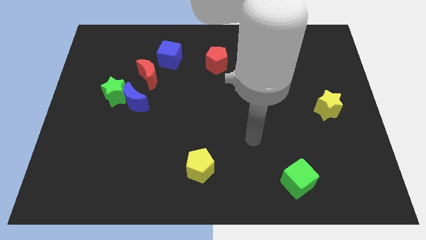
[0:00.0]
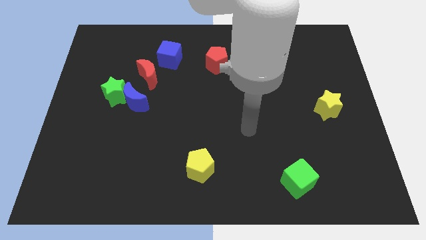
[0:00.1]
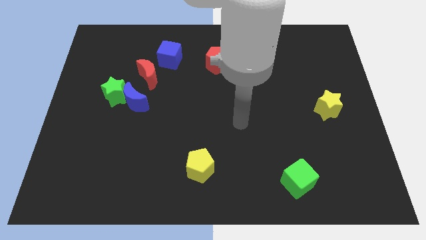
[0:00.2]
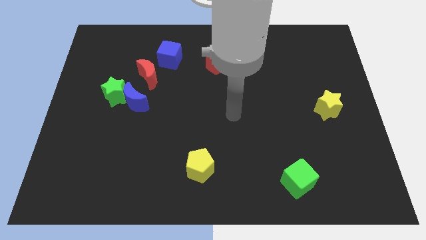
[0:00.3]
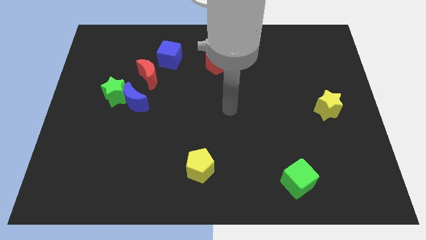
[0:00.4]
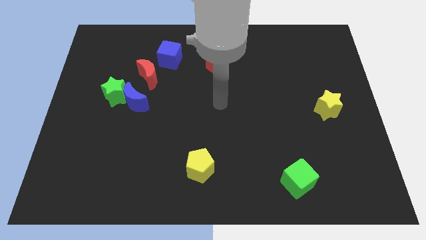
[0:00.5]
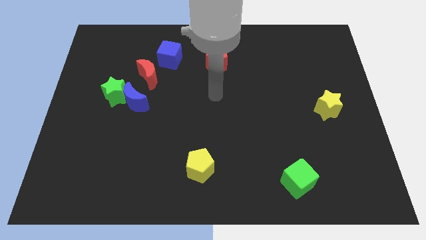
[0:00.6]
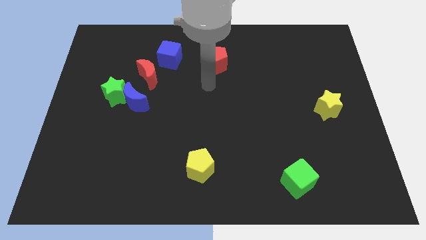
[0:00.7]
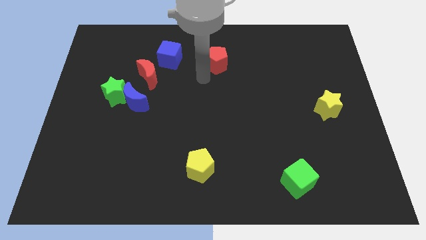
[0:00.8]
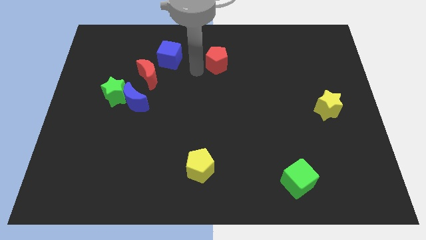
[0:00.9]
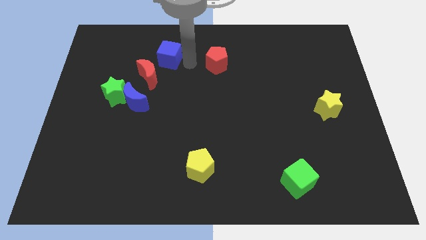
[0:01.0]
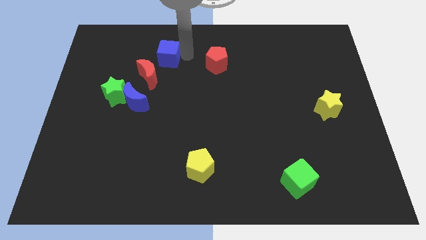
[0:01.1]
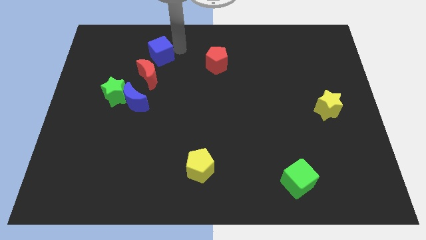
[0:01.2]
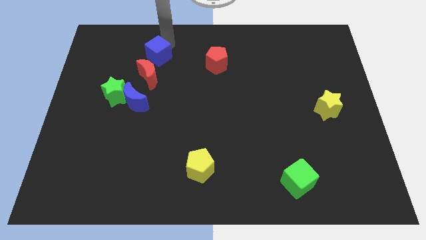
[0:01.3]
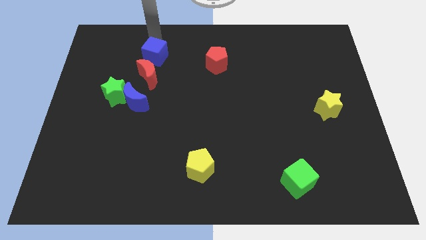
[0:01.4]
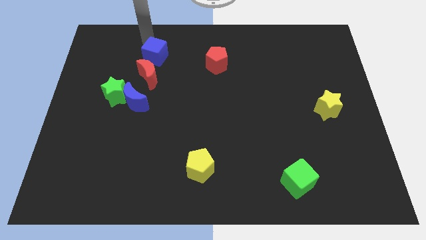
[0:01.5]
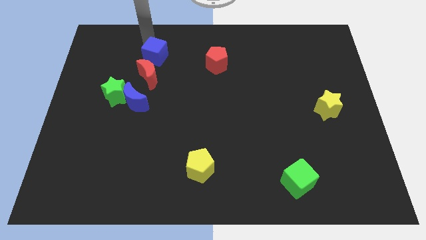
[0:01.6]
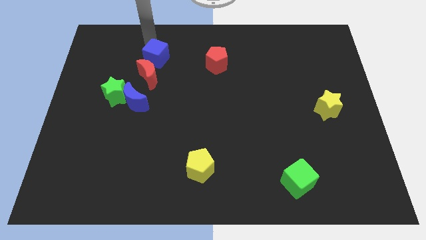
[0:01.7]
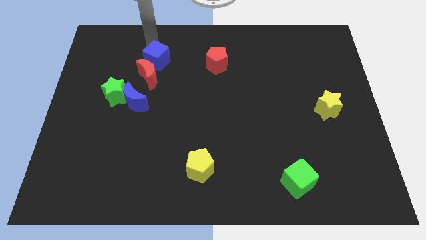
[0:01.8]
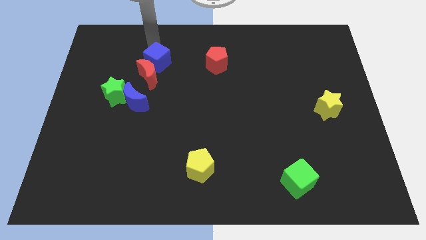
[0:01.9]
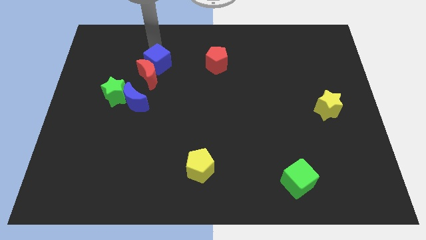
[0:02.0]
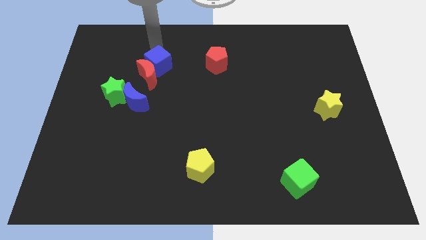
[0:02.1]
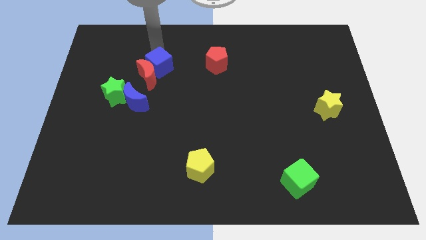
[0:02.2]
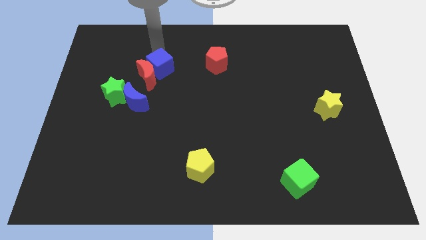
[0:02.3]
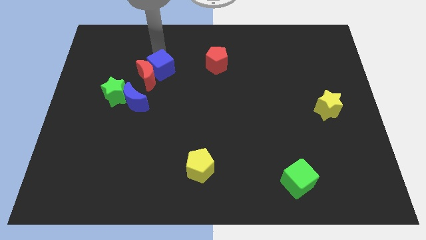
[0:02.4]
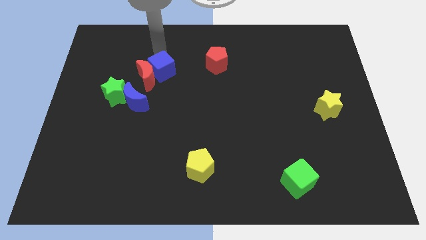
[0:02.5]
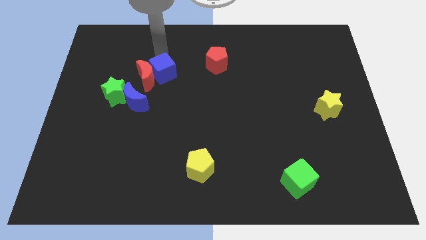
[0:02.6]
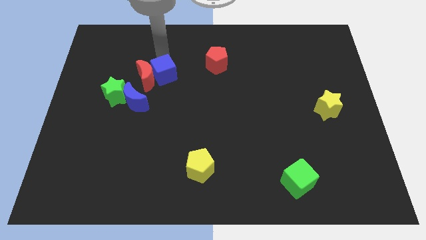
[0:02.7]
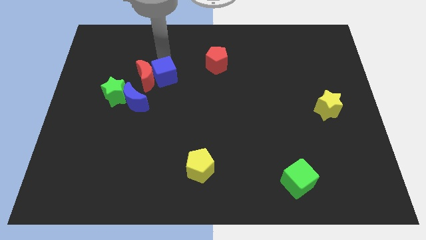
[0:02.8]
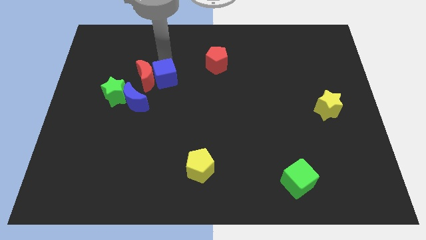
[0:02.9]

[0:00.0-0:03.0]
slightly move the blue cube downwards

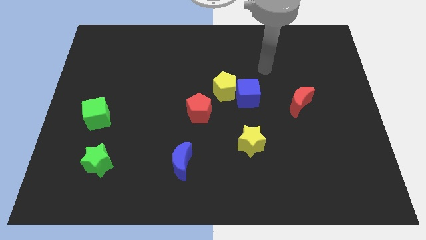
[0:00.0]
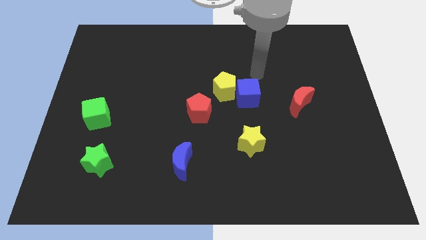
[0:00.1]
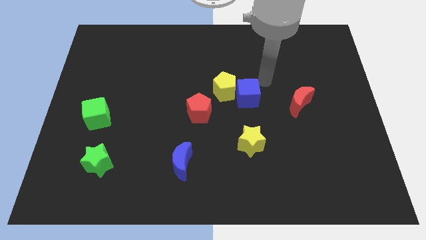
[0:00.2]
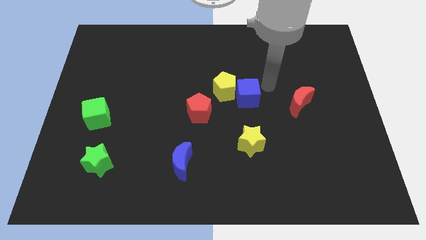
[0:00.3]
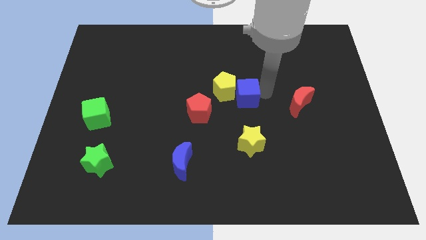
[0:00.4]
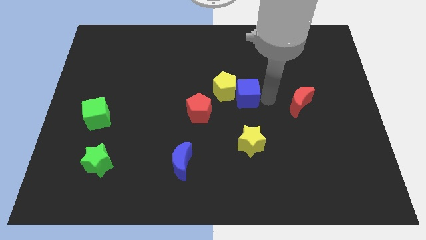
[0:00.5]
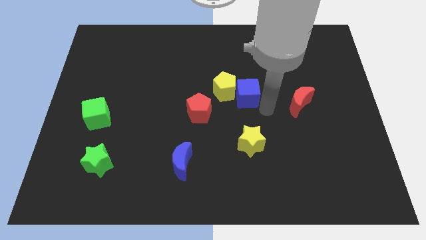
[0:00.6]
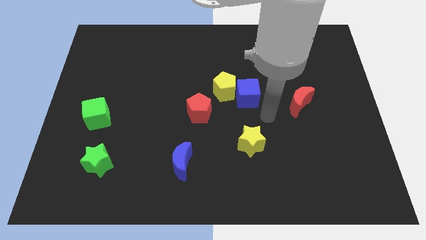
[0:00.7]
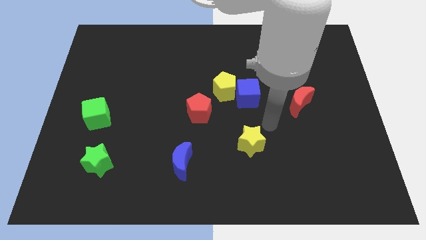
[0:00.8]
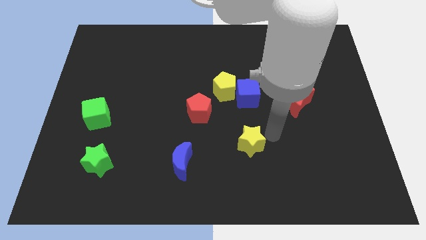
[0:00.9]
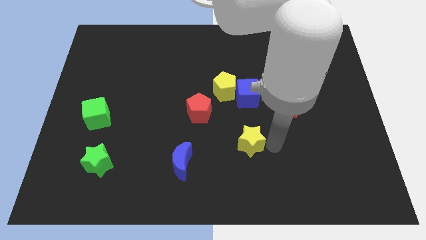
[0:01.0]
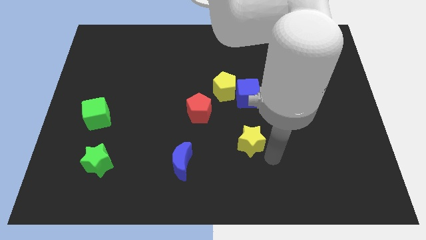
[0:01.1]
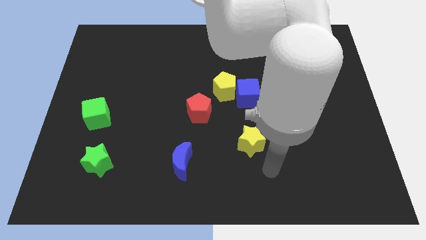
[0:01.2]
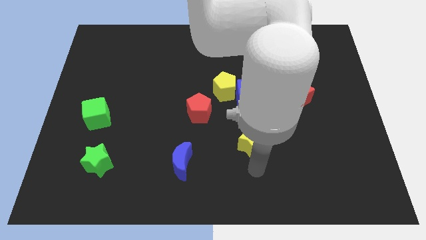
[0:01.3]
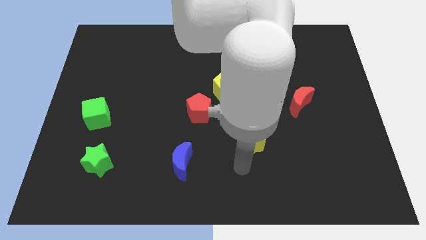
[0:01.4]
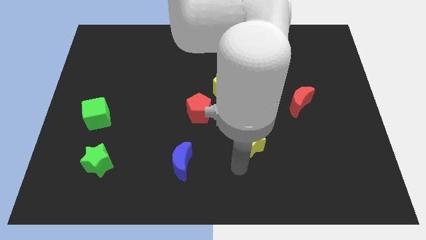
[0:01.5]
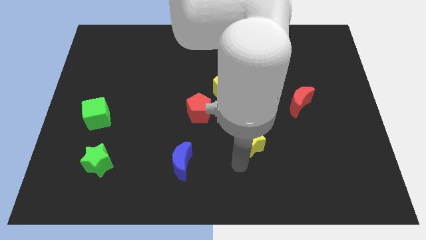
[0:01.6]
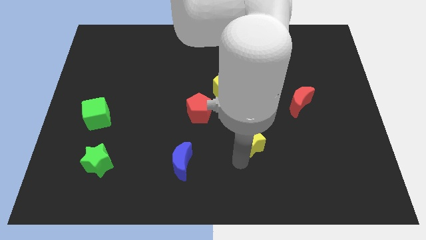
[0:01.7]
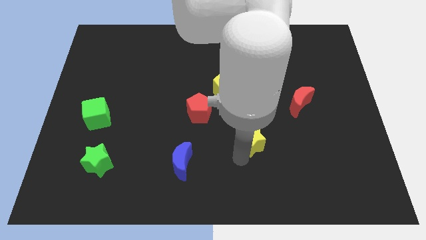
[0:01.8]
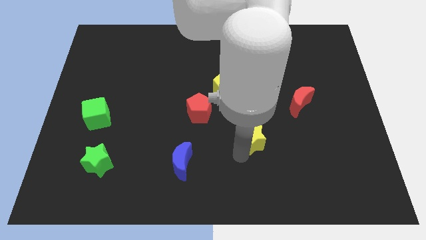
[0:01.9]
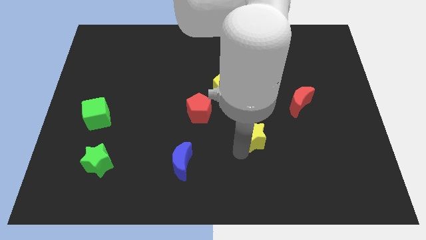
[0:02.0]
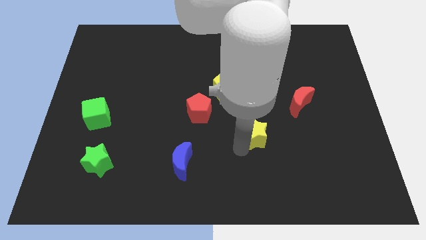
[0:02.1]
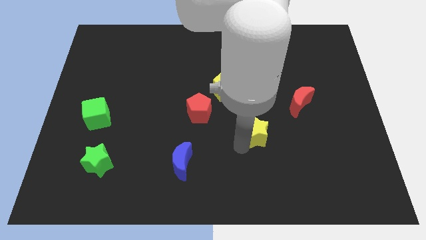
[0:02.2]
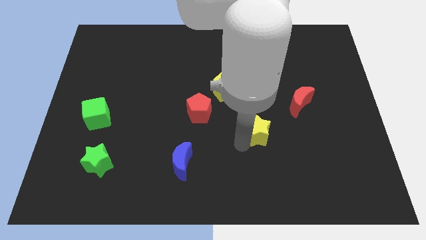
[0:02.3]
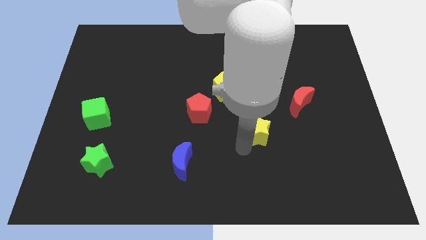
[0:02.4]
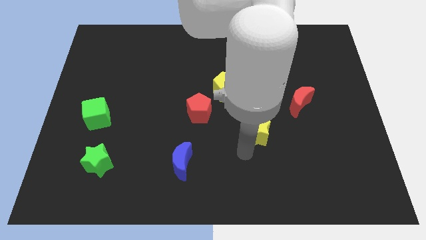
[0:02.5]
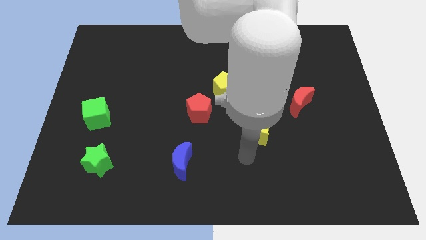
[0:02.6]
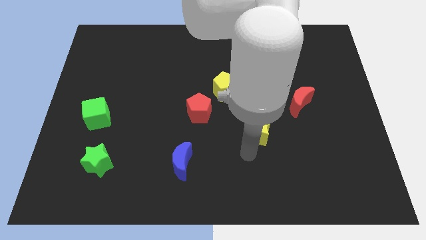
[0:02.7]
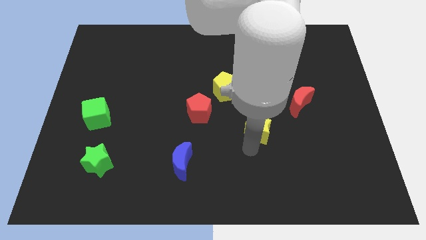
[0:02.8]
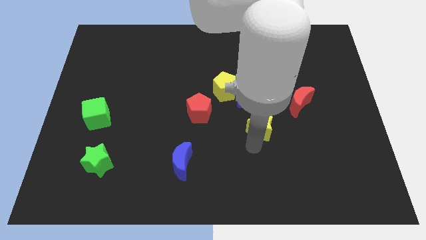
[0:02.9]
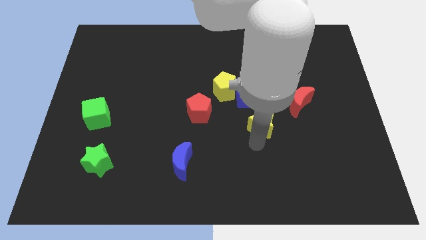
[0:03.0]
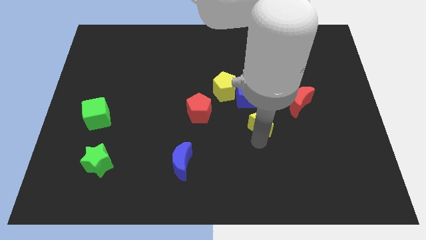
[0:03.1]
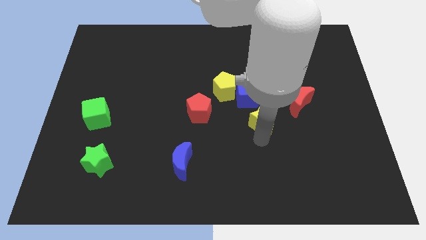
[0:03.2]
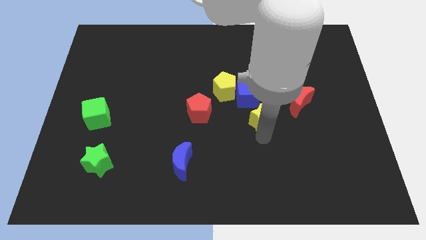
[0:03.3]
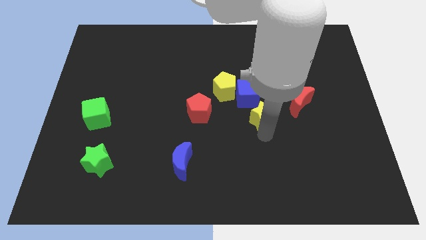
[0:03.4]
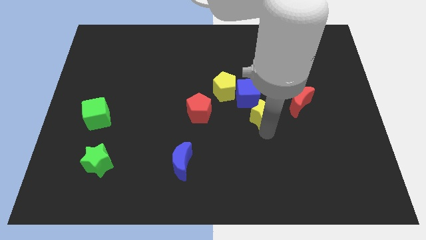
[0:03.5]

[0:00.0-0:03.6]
slightly move the yellow star upwards

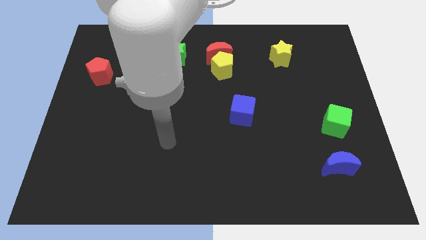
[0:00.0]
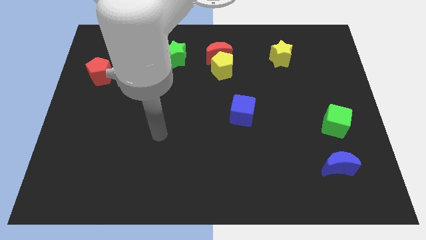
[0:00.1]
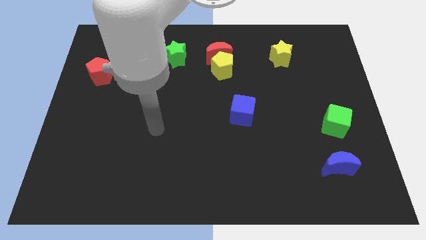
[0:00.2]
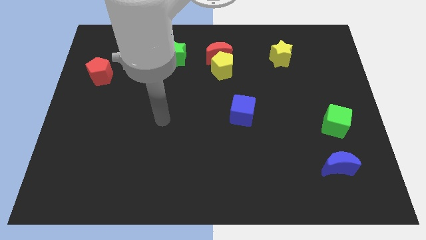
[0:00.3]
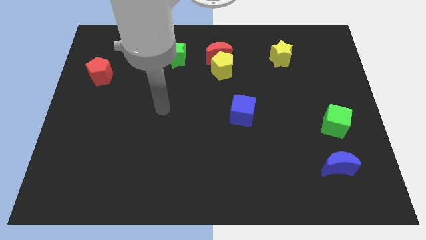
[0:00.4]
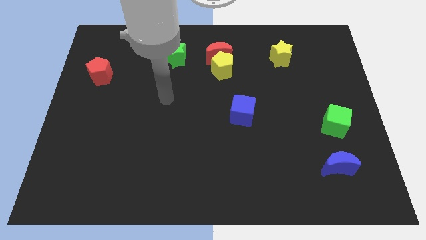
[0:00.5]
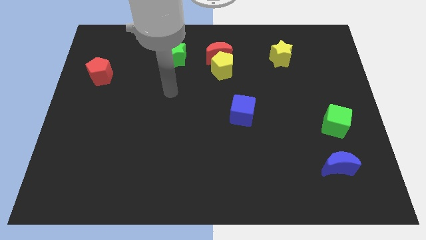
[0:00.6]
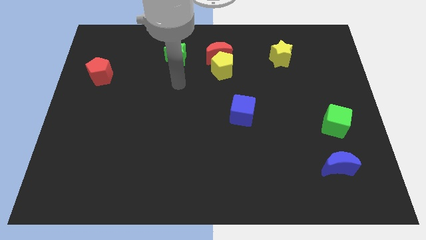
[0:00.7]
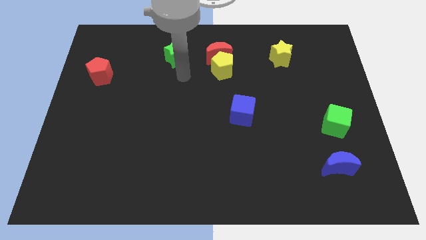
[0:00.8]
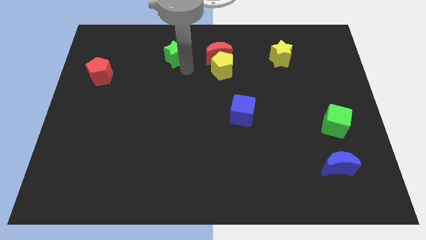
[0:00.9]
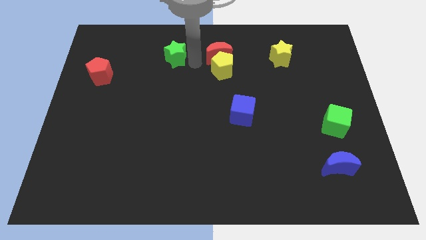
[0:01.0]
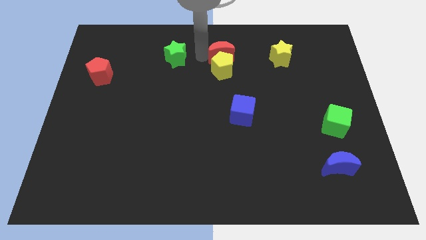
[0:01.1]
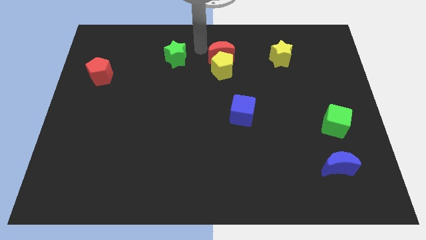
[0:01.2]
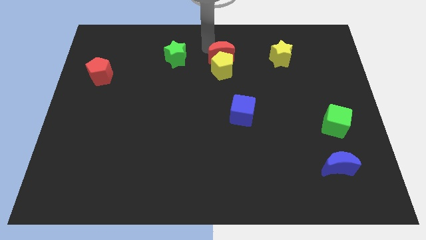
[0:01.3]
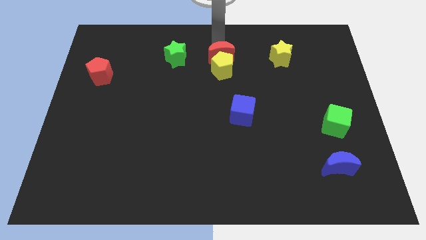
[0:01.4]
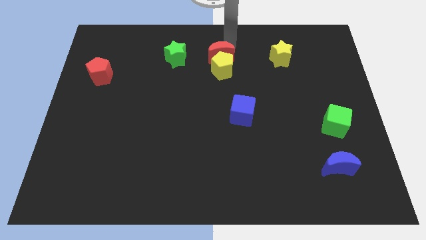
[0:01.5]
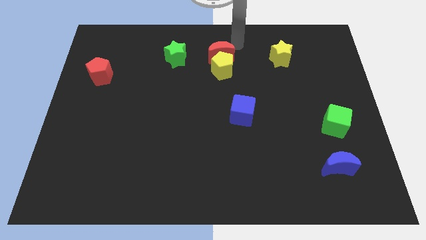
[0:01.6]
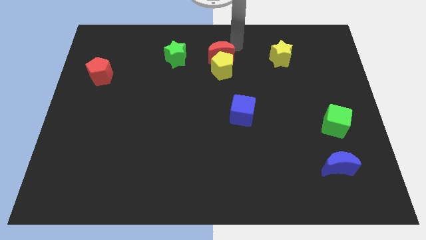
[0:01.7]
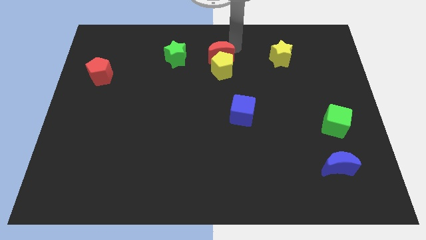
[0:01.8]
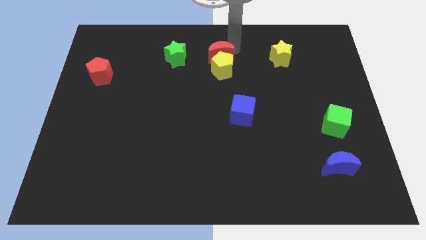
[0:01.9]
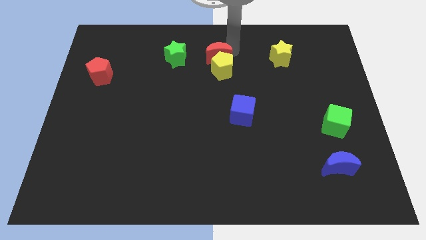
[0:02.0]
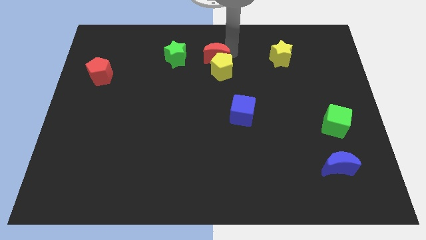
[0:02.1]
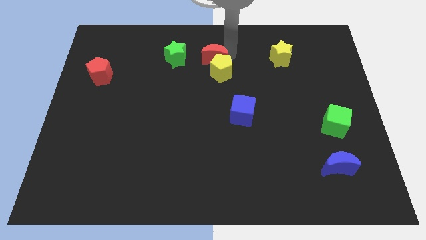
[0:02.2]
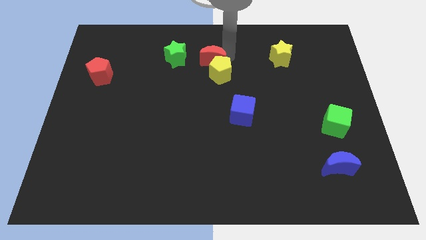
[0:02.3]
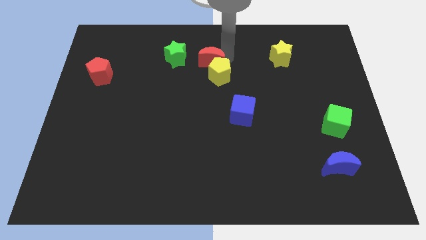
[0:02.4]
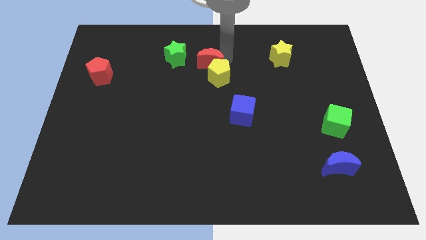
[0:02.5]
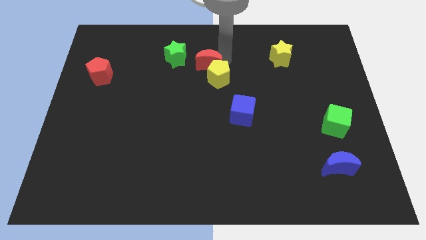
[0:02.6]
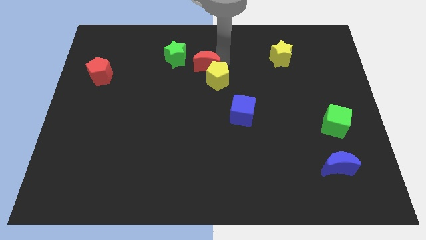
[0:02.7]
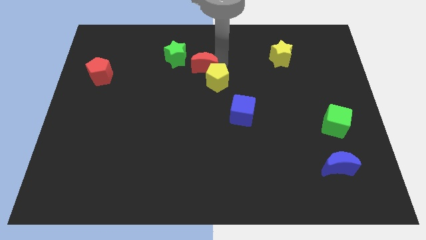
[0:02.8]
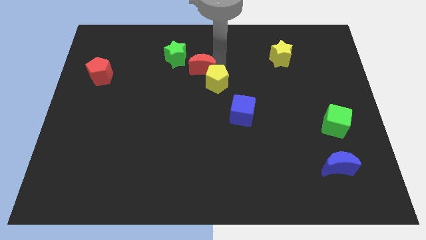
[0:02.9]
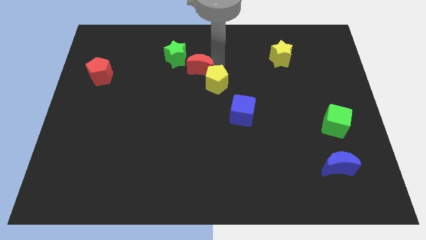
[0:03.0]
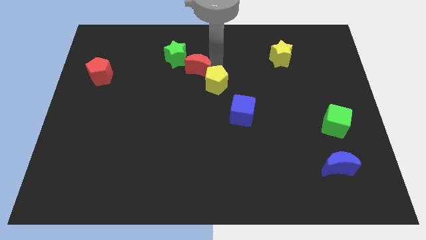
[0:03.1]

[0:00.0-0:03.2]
slightly slide the red moon downwards and left
